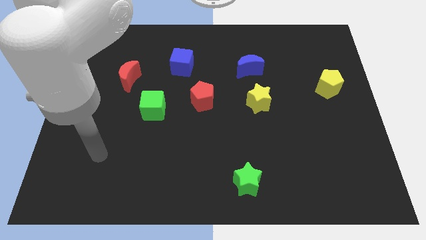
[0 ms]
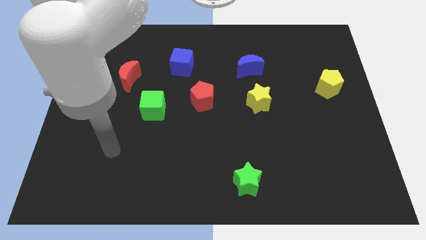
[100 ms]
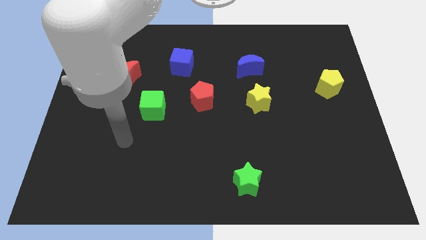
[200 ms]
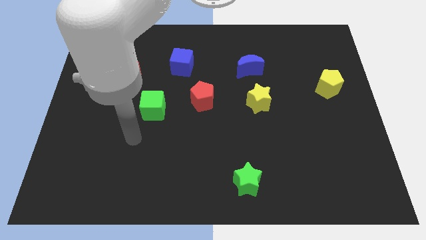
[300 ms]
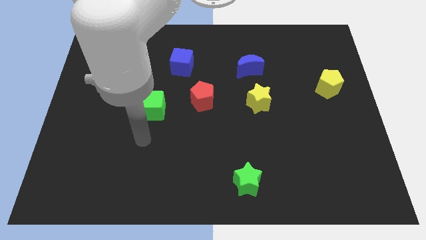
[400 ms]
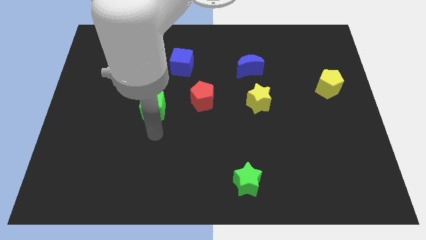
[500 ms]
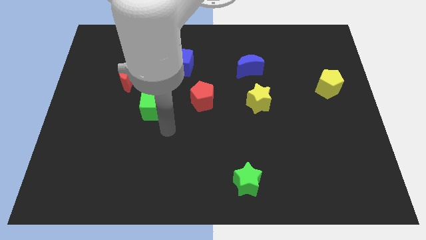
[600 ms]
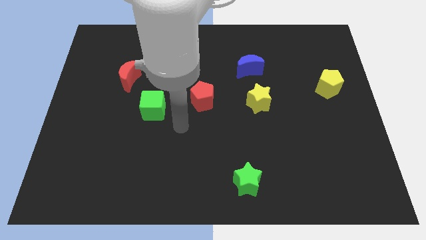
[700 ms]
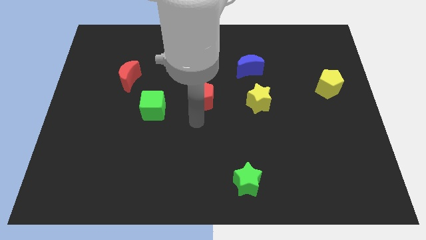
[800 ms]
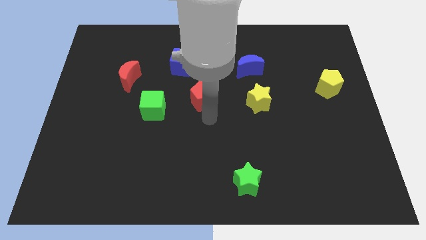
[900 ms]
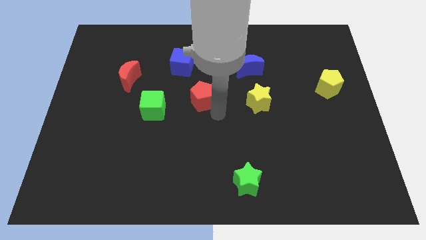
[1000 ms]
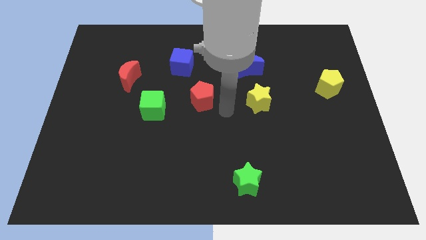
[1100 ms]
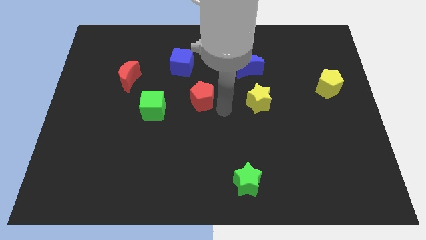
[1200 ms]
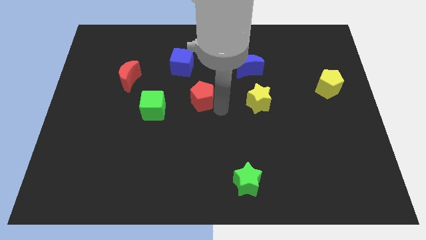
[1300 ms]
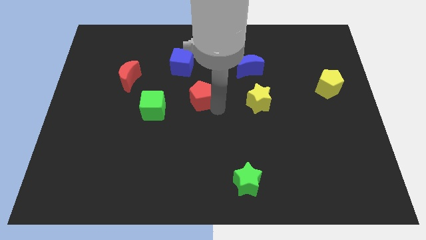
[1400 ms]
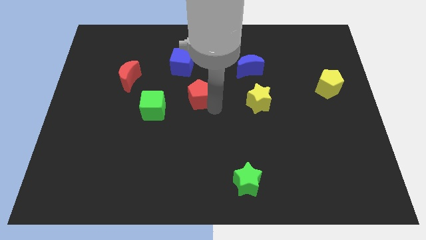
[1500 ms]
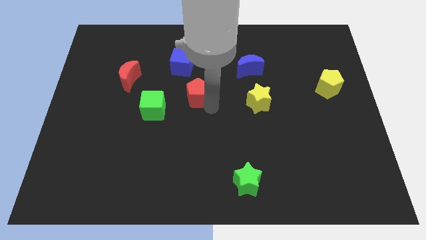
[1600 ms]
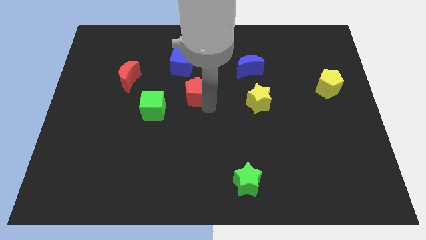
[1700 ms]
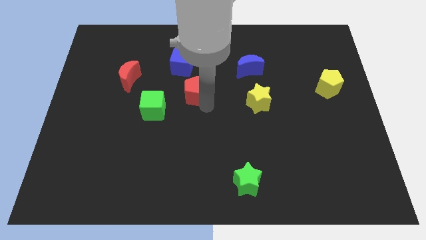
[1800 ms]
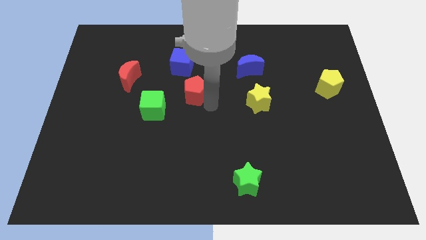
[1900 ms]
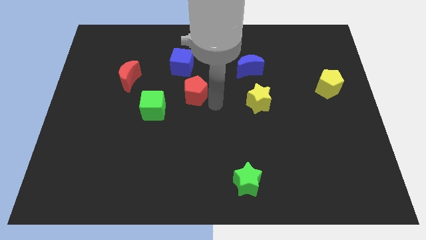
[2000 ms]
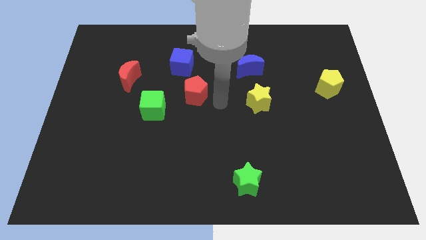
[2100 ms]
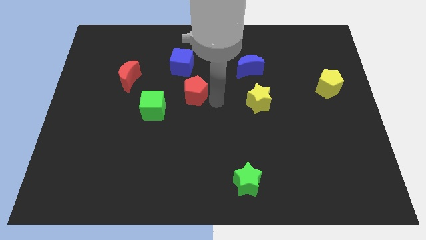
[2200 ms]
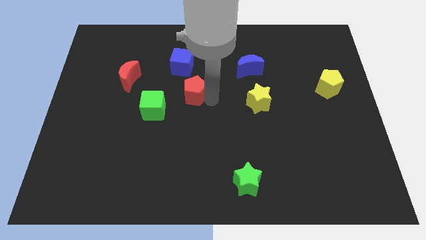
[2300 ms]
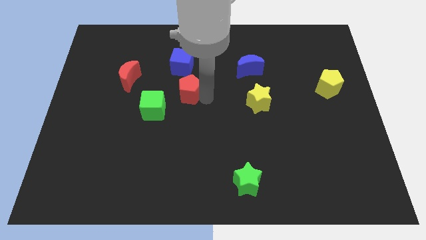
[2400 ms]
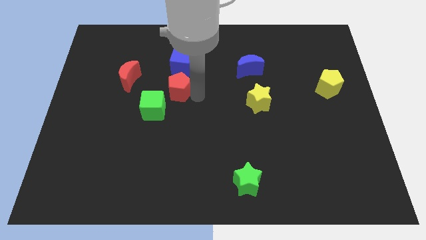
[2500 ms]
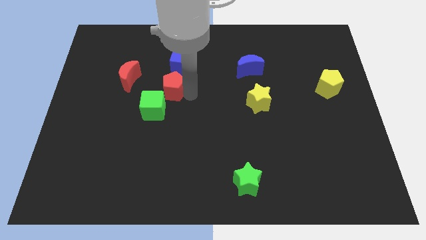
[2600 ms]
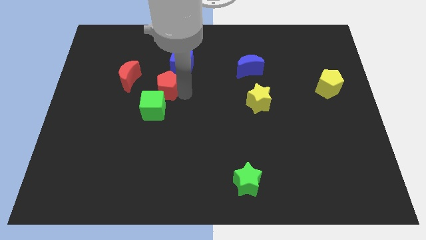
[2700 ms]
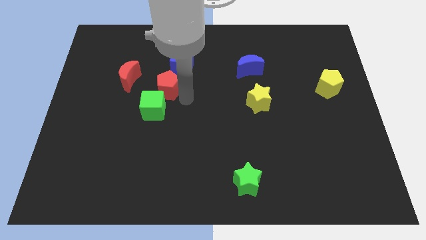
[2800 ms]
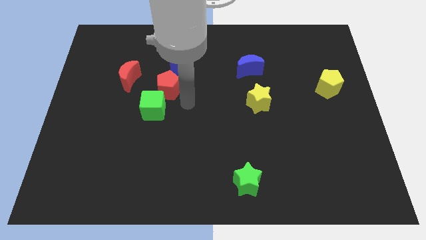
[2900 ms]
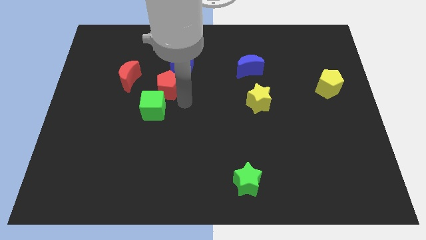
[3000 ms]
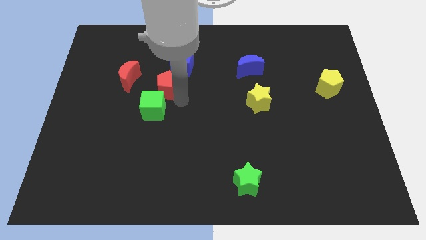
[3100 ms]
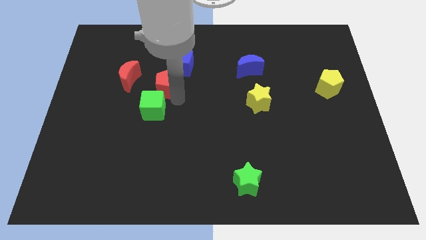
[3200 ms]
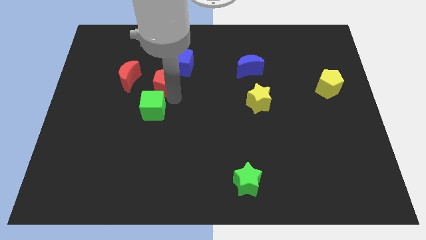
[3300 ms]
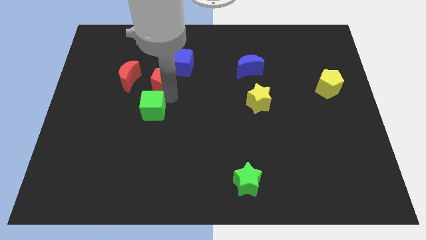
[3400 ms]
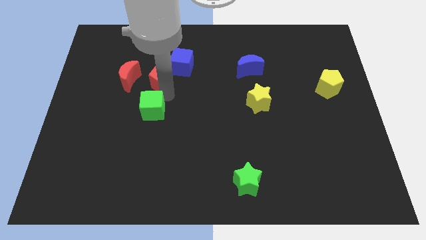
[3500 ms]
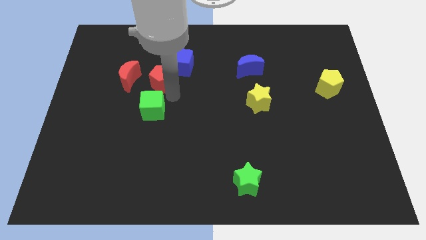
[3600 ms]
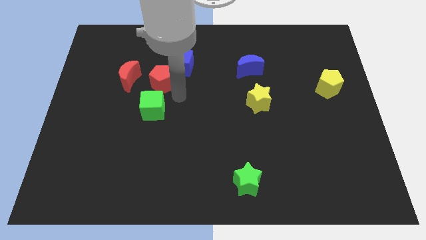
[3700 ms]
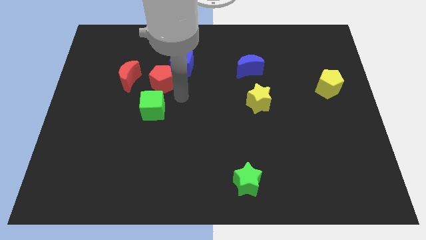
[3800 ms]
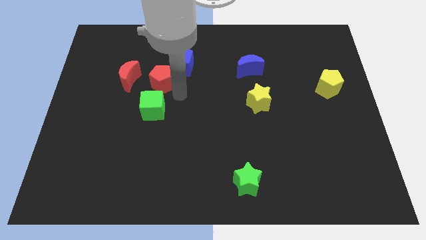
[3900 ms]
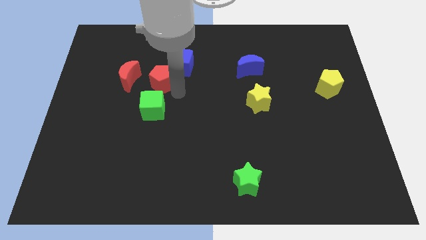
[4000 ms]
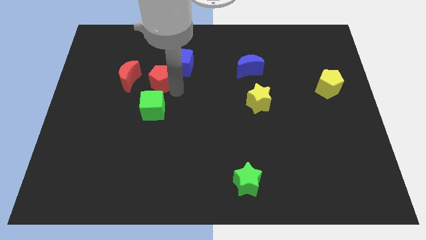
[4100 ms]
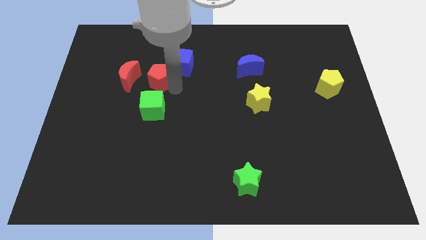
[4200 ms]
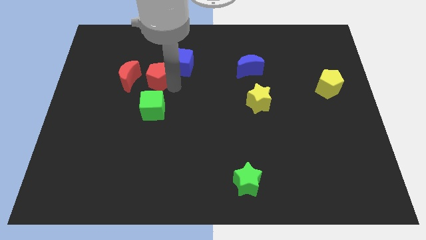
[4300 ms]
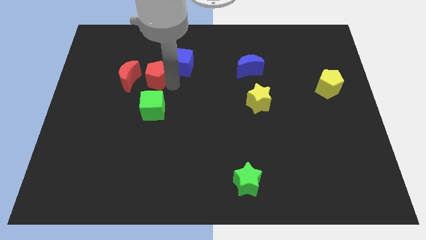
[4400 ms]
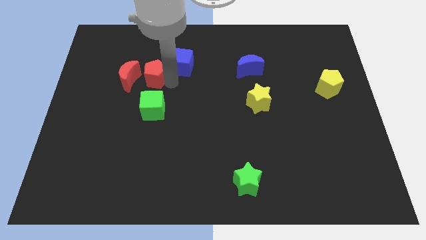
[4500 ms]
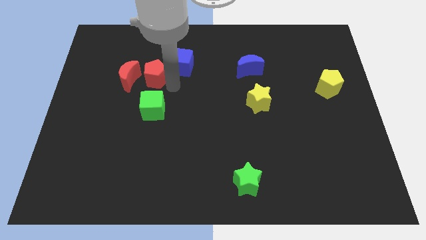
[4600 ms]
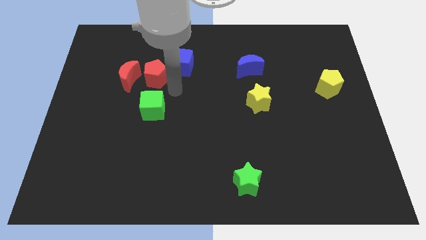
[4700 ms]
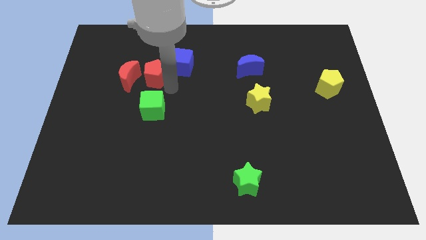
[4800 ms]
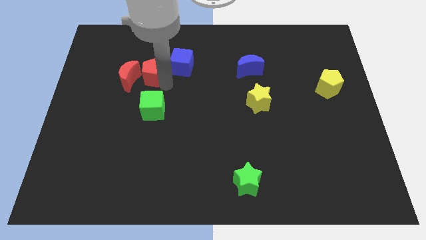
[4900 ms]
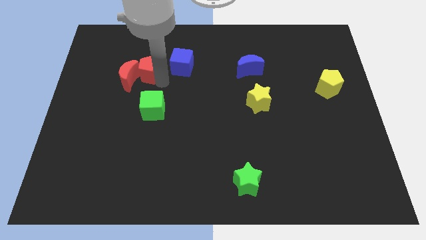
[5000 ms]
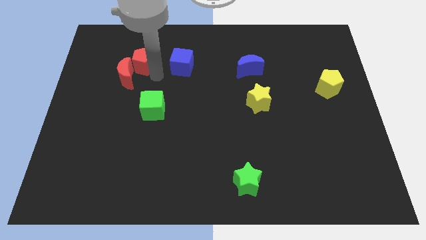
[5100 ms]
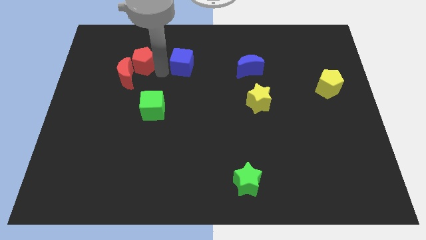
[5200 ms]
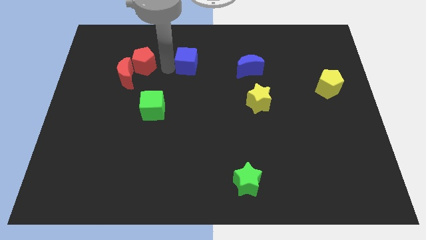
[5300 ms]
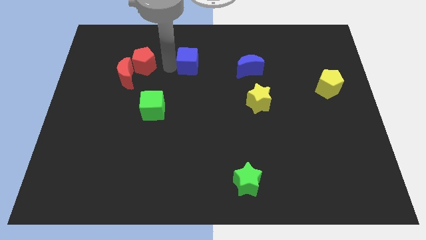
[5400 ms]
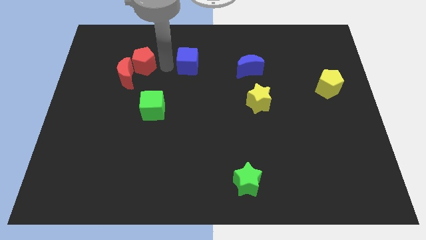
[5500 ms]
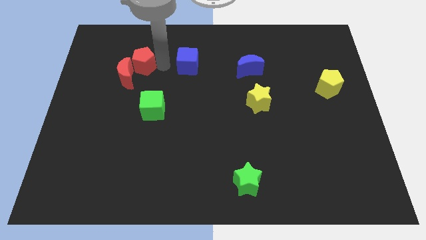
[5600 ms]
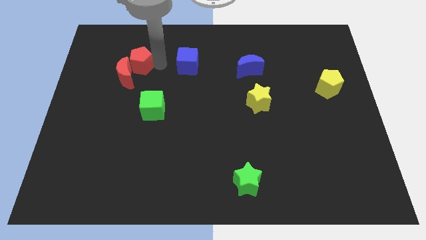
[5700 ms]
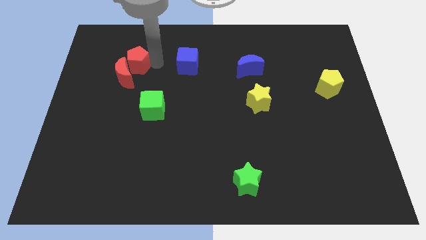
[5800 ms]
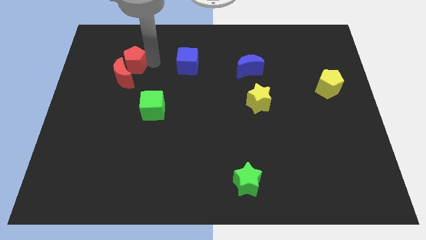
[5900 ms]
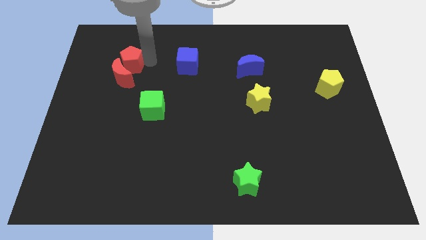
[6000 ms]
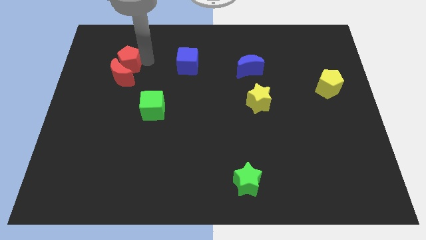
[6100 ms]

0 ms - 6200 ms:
slide the red pentagon to the top left of the red moon

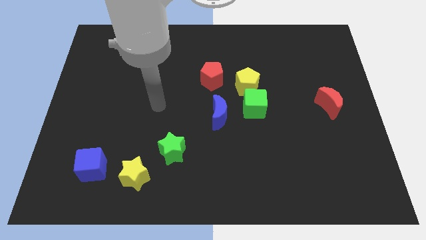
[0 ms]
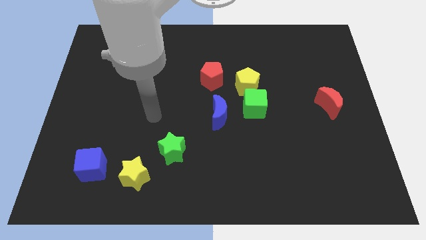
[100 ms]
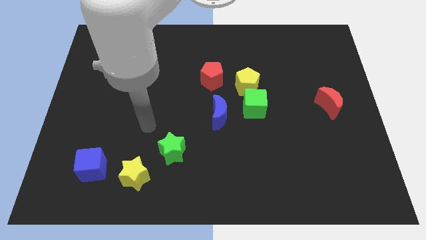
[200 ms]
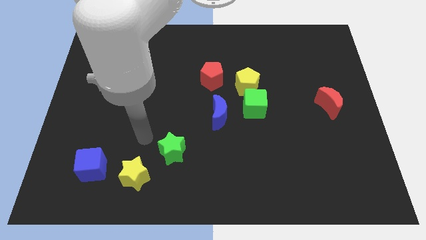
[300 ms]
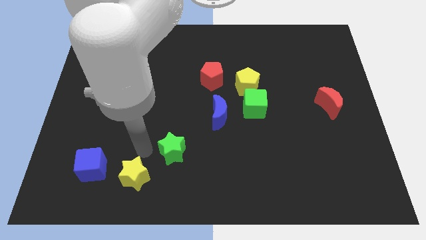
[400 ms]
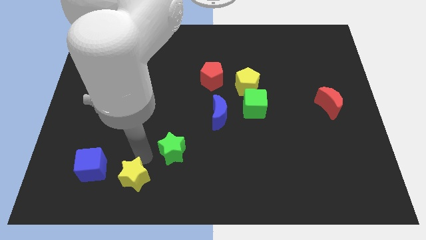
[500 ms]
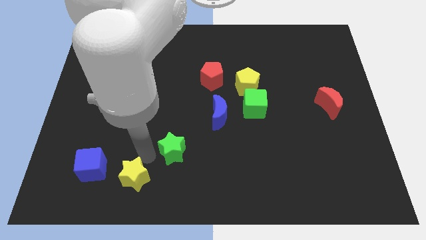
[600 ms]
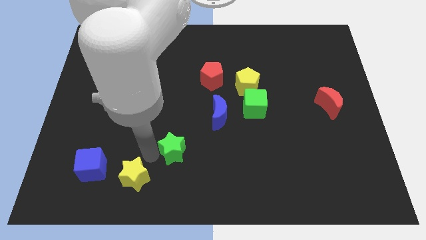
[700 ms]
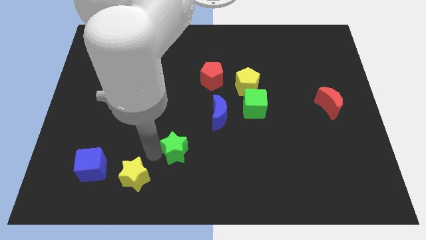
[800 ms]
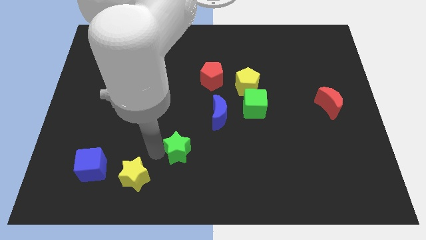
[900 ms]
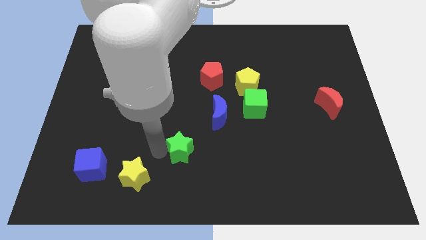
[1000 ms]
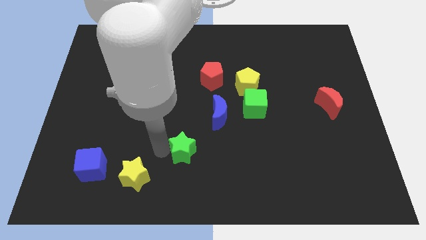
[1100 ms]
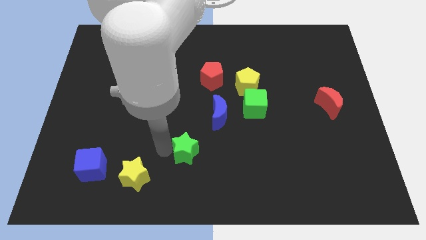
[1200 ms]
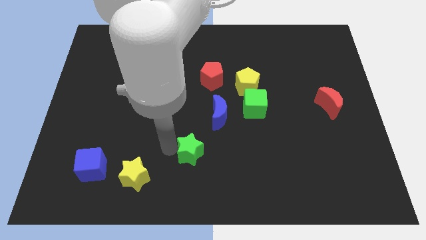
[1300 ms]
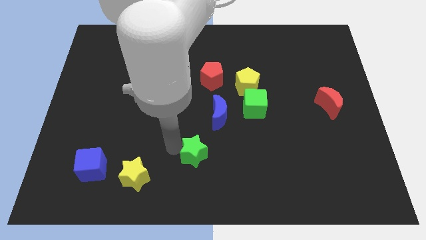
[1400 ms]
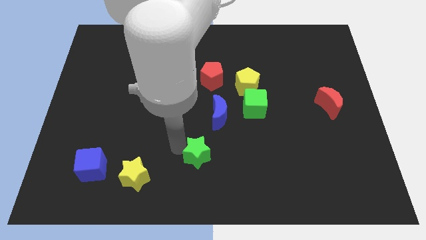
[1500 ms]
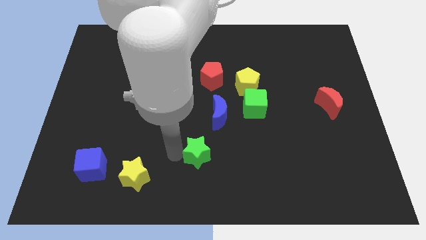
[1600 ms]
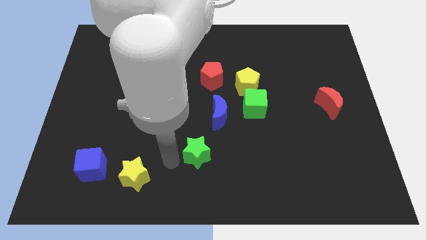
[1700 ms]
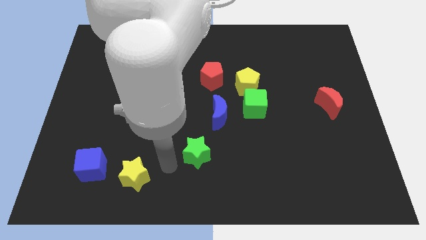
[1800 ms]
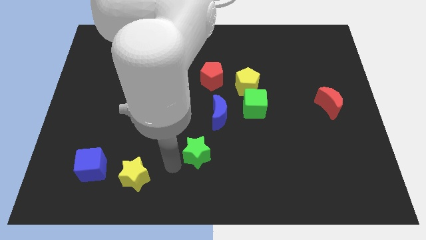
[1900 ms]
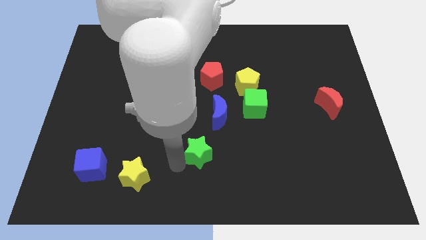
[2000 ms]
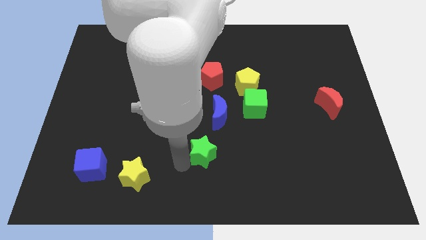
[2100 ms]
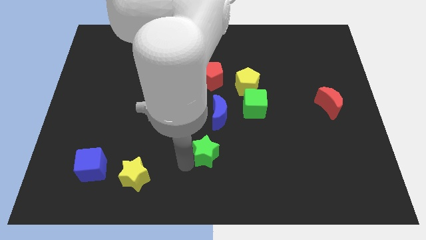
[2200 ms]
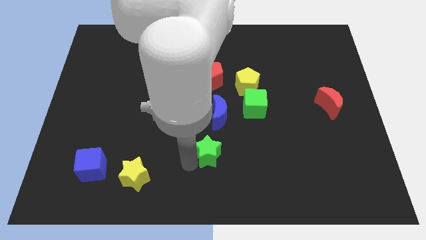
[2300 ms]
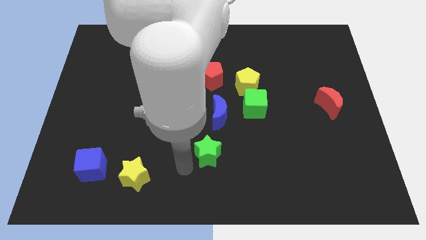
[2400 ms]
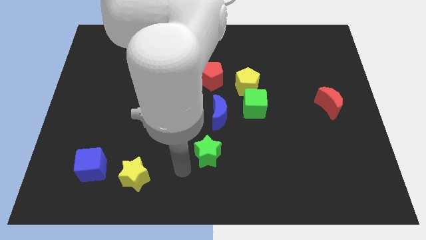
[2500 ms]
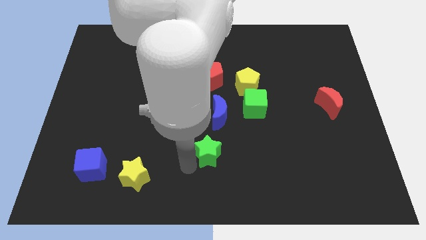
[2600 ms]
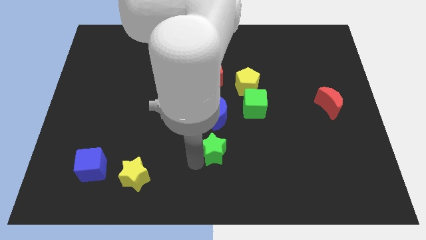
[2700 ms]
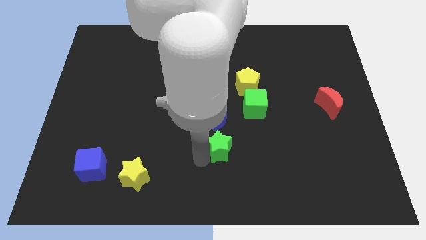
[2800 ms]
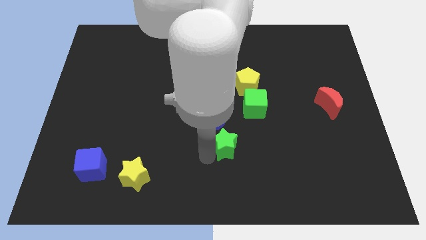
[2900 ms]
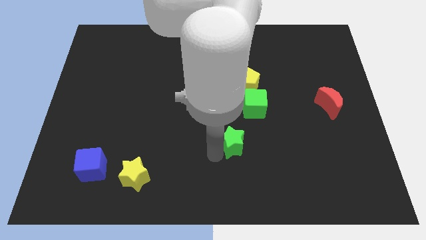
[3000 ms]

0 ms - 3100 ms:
put the green star diagonally down and to the left of the green cube
